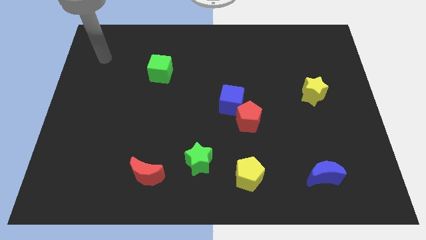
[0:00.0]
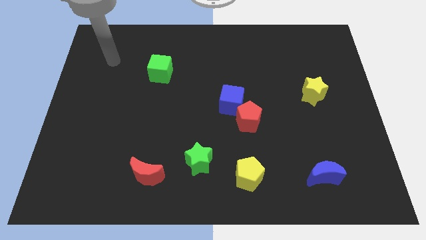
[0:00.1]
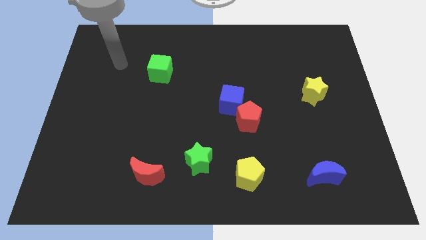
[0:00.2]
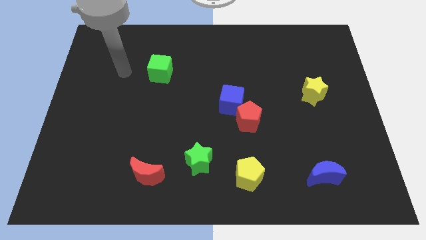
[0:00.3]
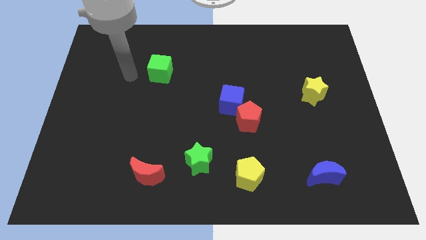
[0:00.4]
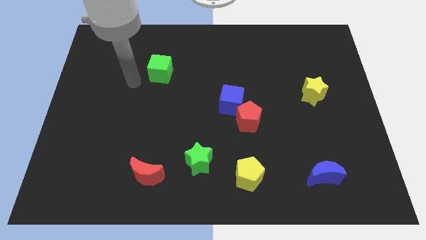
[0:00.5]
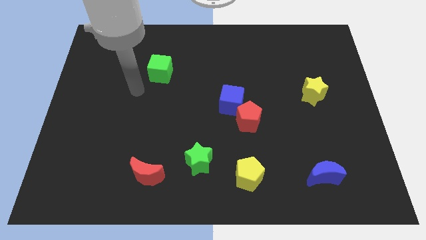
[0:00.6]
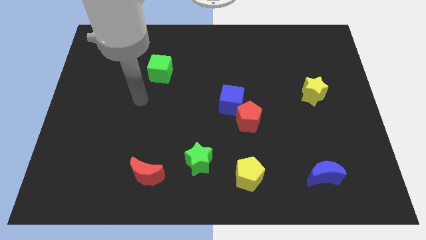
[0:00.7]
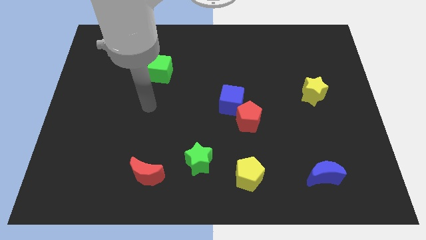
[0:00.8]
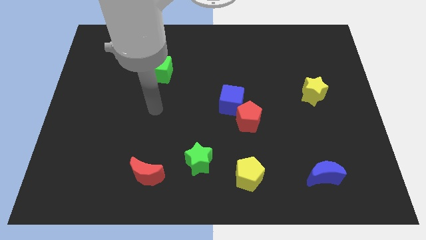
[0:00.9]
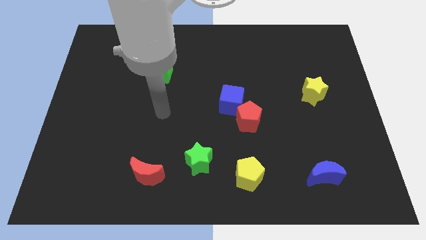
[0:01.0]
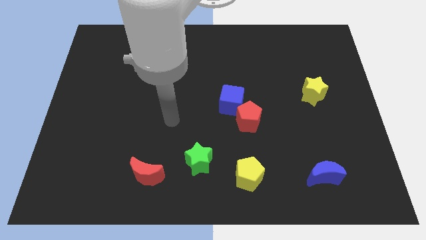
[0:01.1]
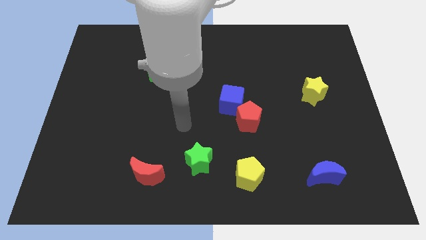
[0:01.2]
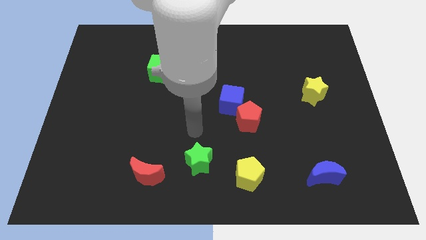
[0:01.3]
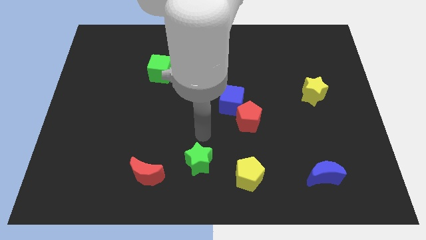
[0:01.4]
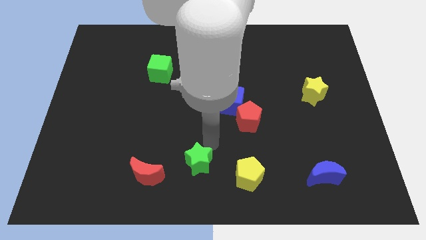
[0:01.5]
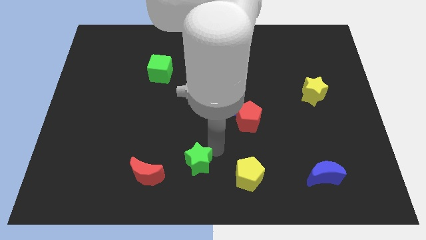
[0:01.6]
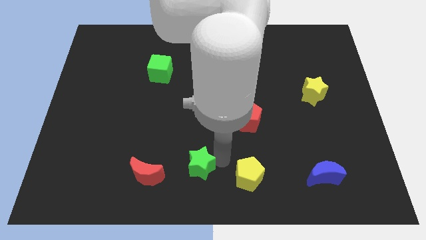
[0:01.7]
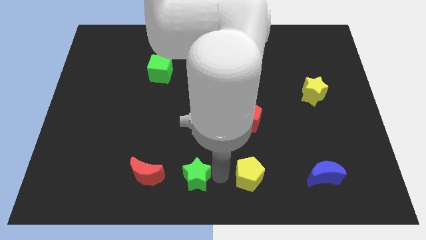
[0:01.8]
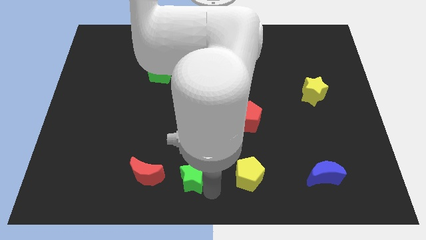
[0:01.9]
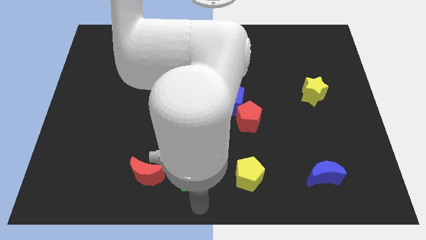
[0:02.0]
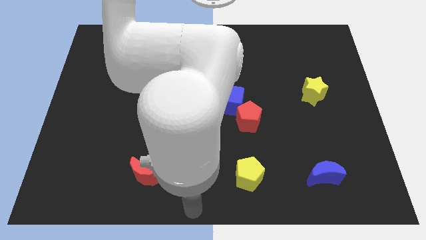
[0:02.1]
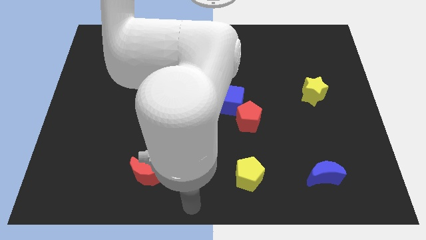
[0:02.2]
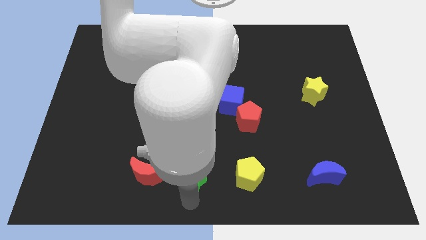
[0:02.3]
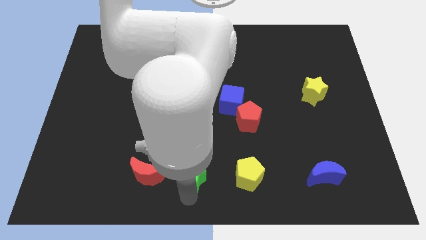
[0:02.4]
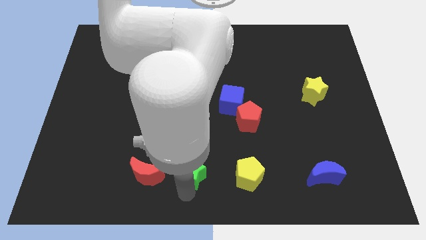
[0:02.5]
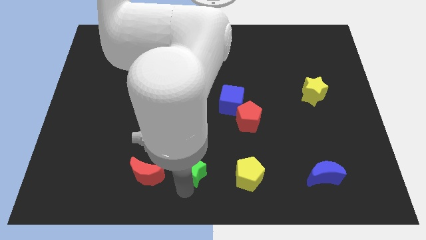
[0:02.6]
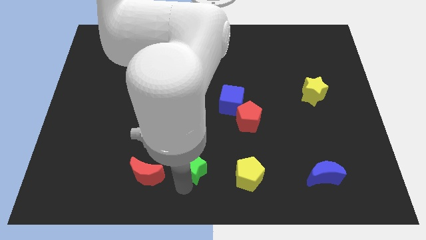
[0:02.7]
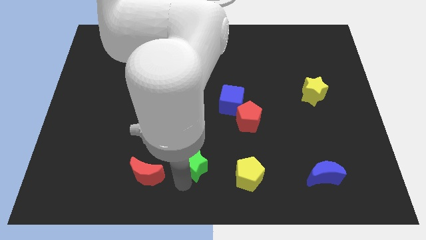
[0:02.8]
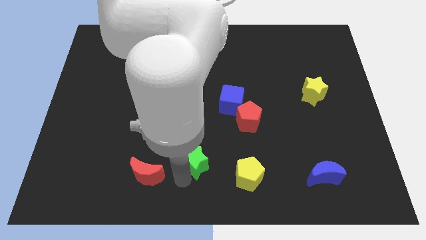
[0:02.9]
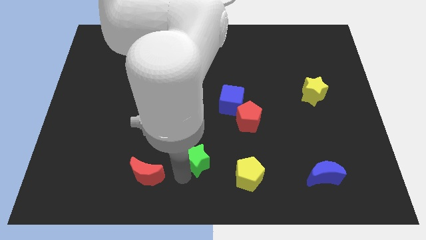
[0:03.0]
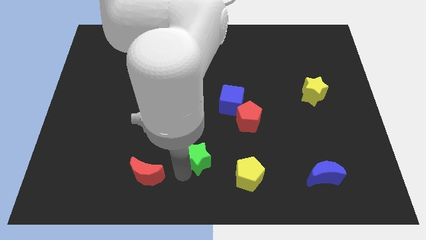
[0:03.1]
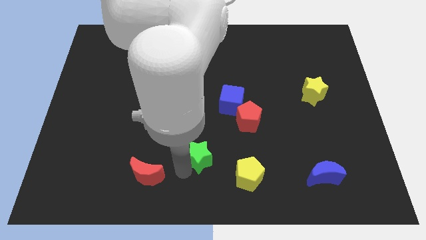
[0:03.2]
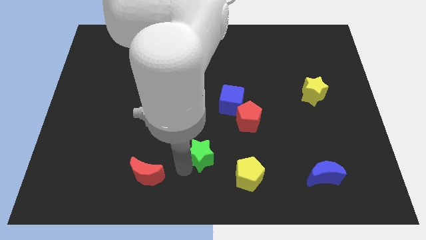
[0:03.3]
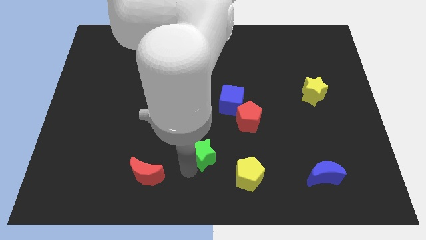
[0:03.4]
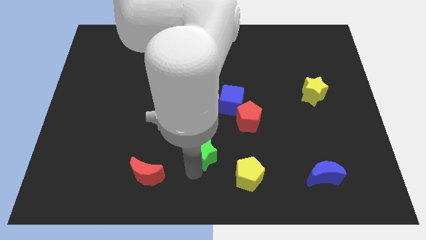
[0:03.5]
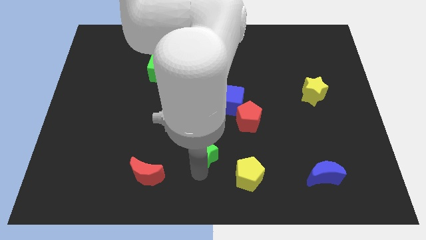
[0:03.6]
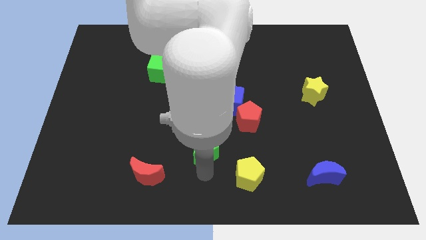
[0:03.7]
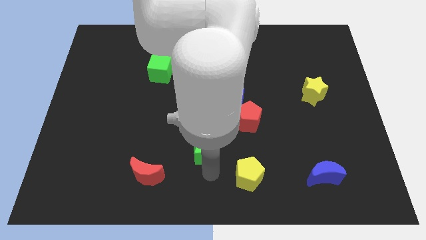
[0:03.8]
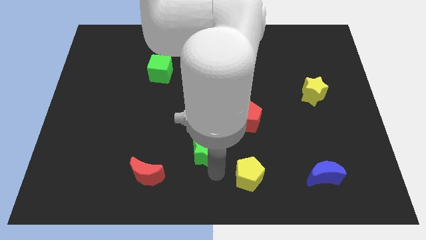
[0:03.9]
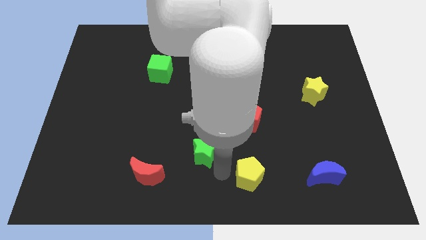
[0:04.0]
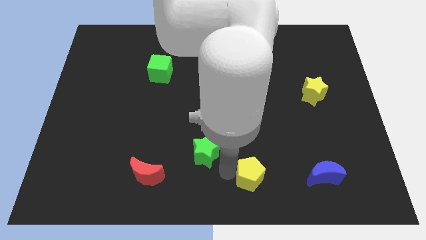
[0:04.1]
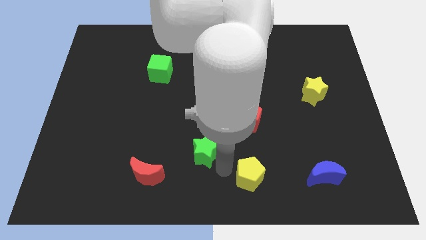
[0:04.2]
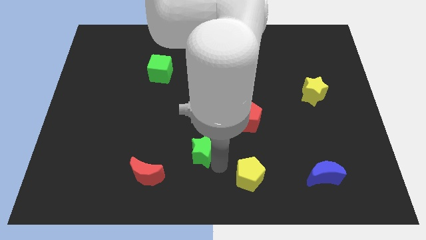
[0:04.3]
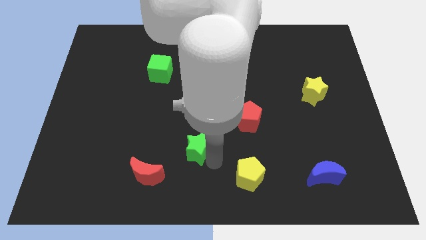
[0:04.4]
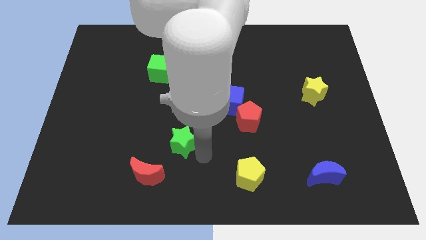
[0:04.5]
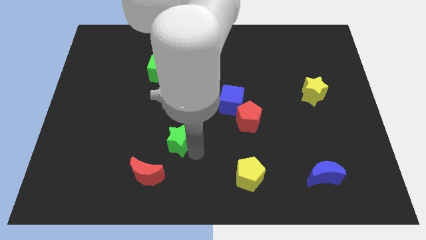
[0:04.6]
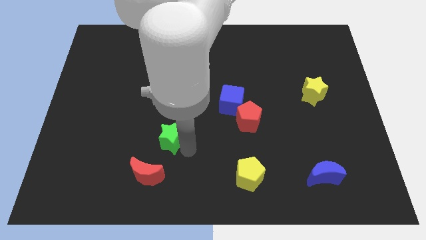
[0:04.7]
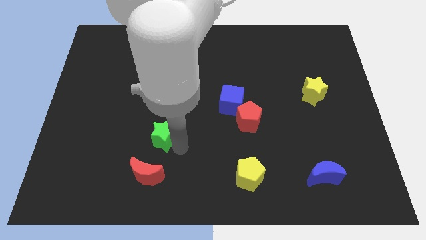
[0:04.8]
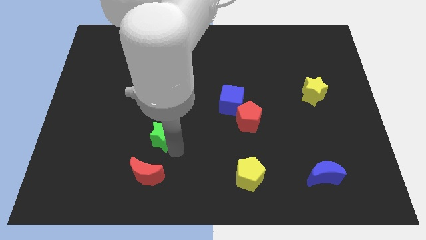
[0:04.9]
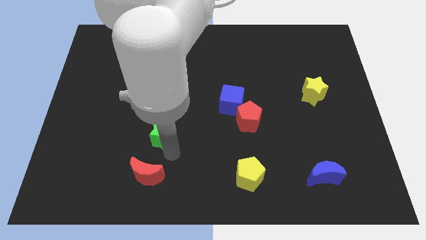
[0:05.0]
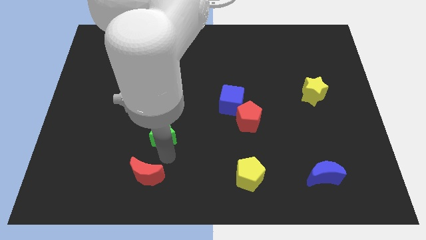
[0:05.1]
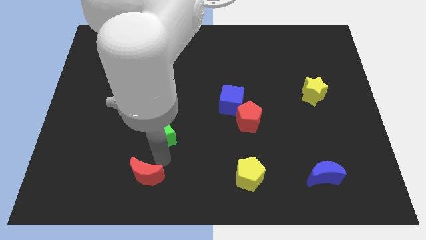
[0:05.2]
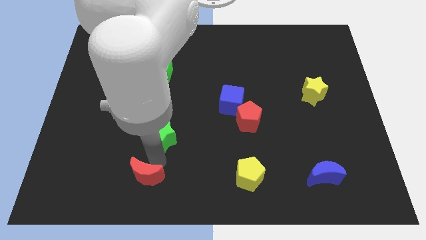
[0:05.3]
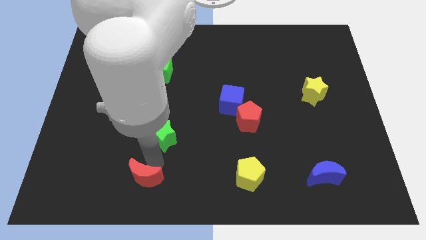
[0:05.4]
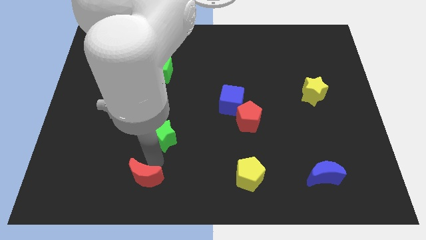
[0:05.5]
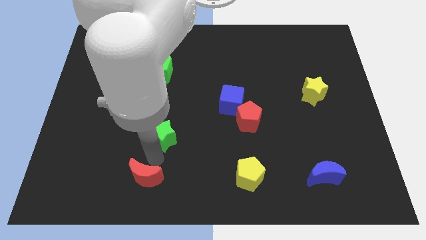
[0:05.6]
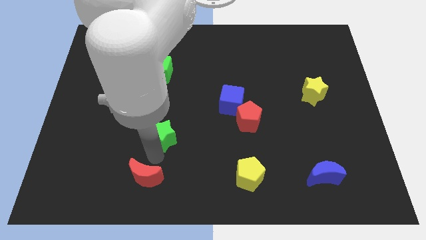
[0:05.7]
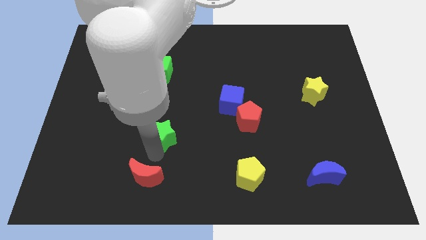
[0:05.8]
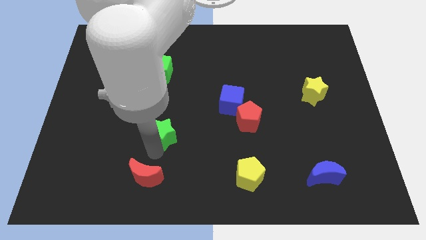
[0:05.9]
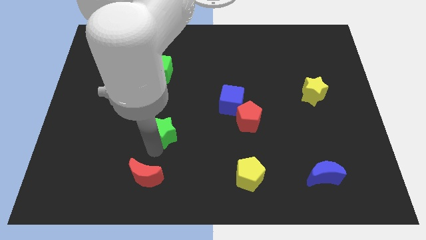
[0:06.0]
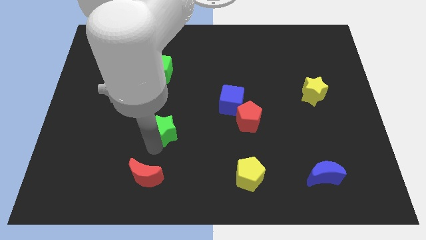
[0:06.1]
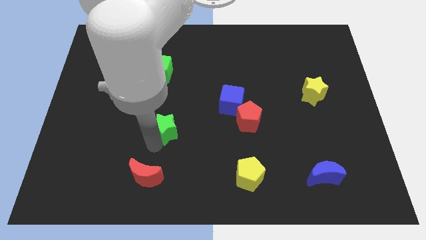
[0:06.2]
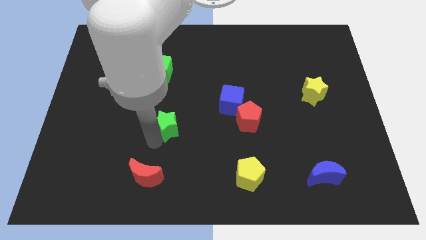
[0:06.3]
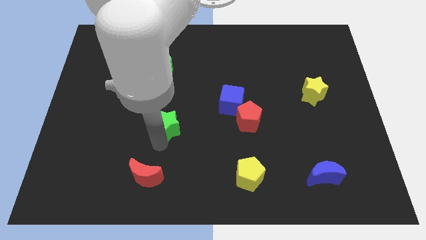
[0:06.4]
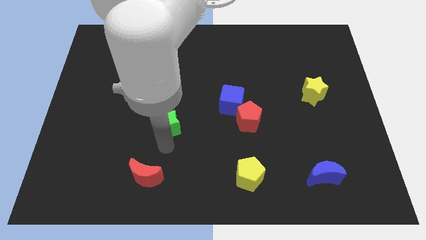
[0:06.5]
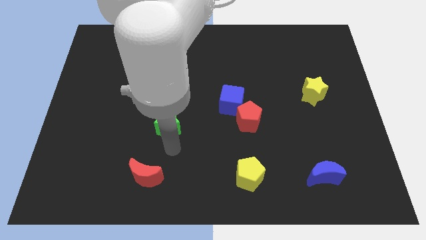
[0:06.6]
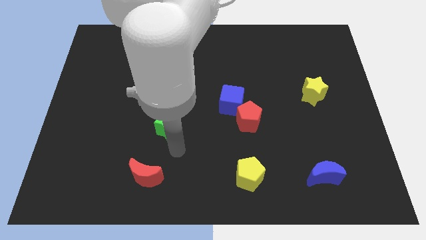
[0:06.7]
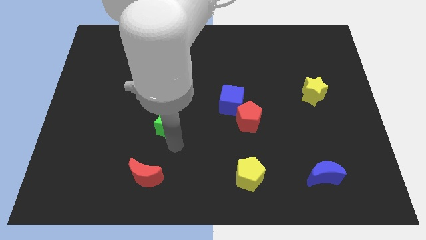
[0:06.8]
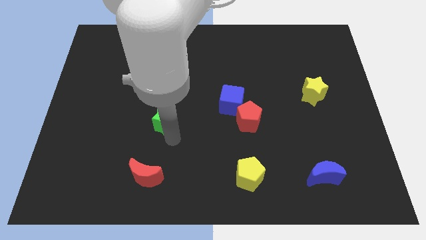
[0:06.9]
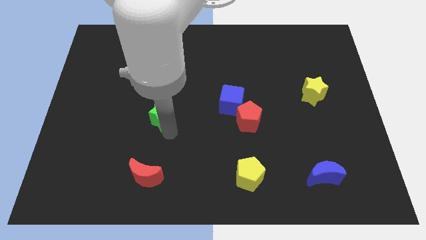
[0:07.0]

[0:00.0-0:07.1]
put the green star to the bottom side of the green cube

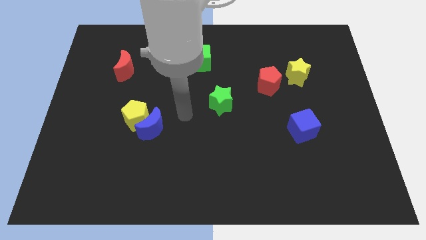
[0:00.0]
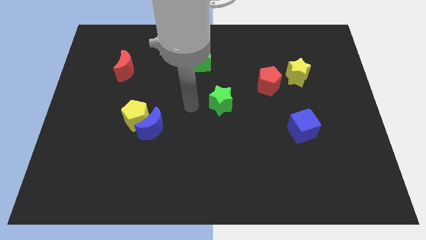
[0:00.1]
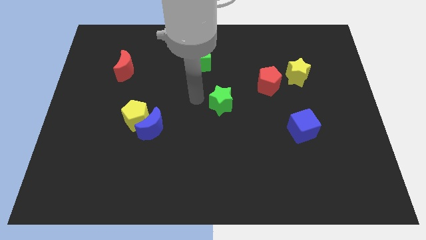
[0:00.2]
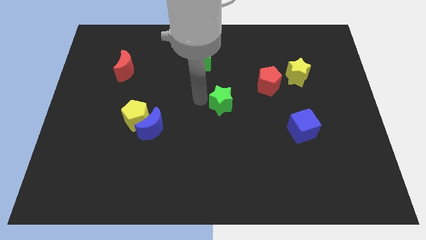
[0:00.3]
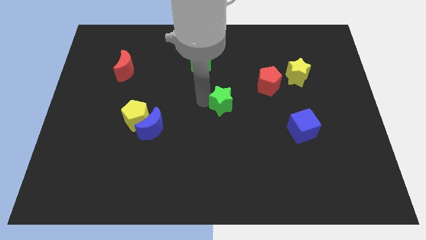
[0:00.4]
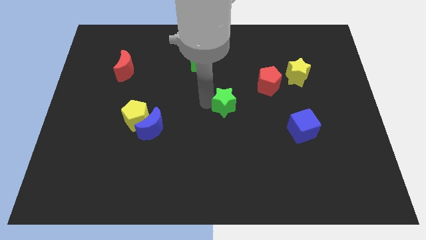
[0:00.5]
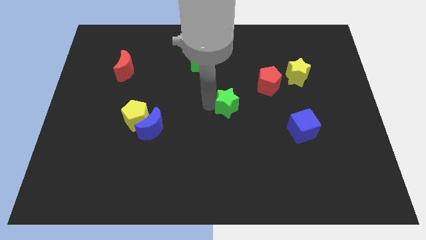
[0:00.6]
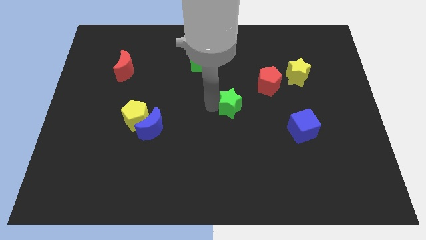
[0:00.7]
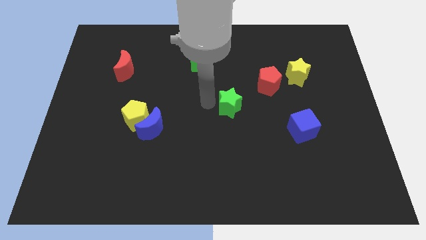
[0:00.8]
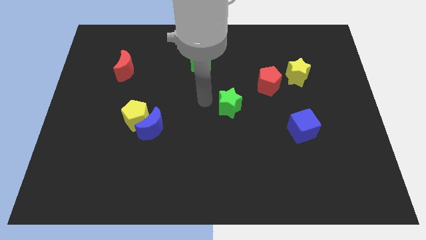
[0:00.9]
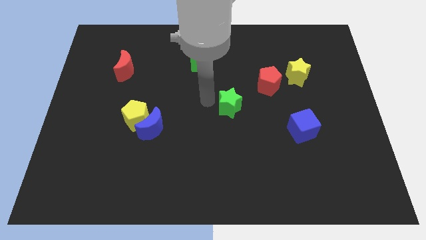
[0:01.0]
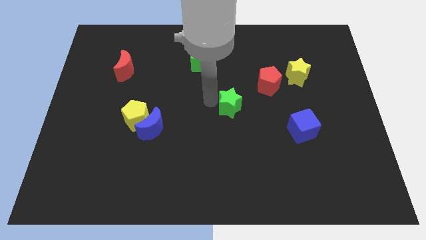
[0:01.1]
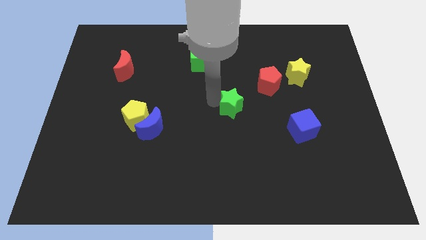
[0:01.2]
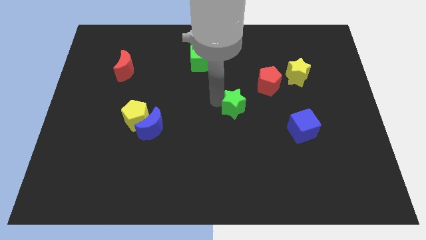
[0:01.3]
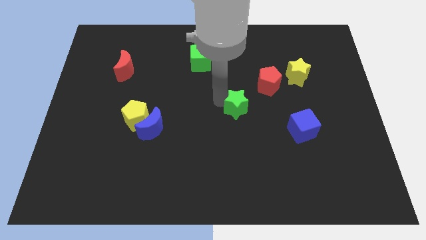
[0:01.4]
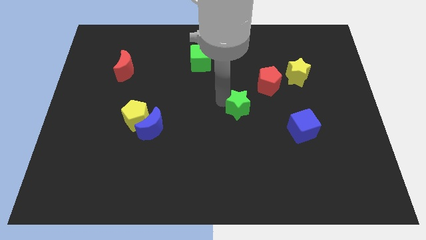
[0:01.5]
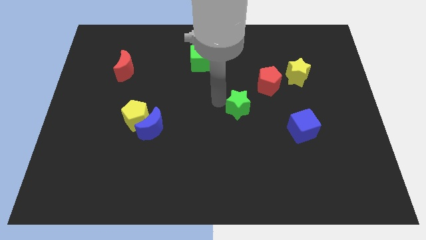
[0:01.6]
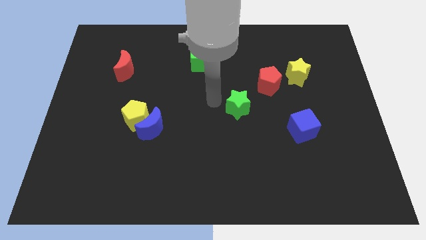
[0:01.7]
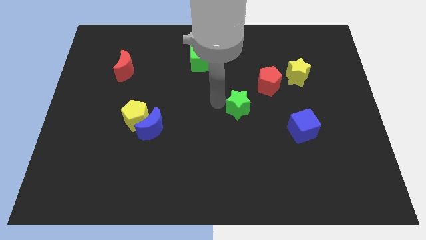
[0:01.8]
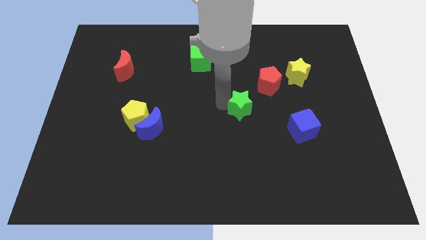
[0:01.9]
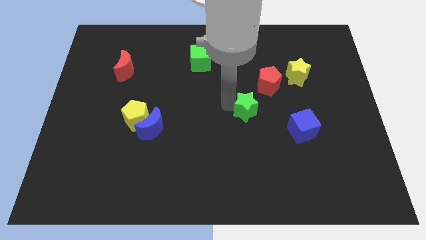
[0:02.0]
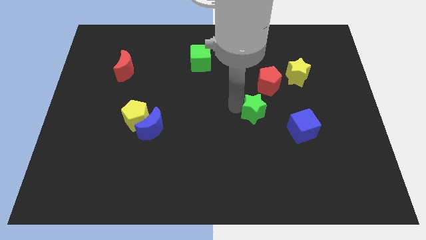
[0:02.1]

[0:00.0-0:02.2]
move the green star below the red pentagon
